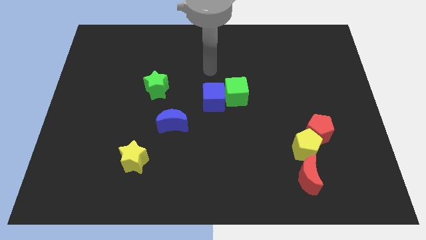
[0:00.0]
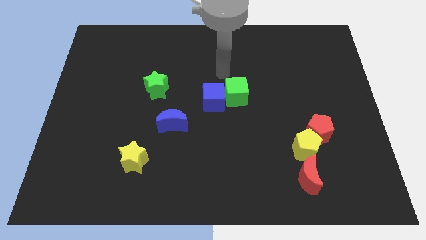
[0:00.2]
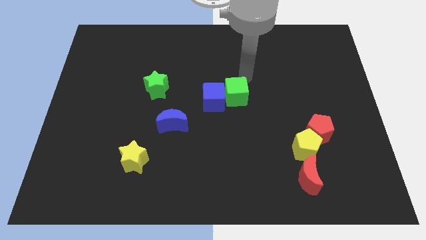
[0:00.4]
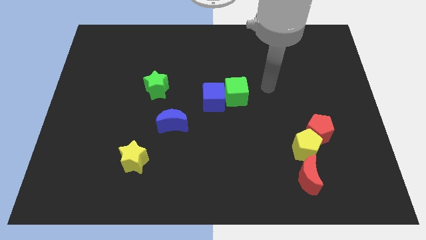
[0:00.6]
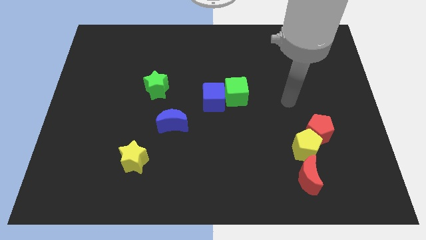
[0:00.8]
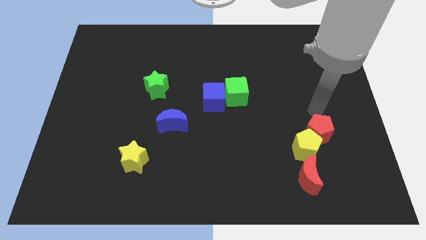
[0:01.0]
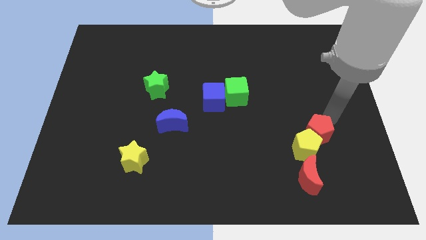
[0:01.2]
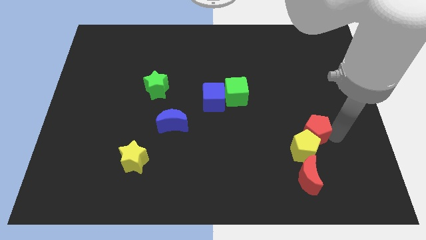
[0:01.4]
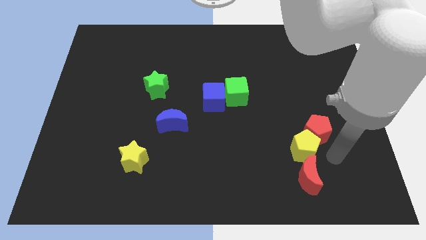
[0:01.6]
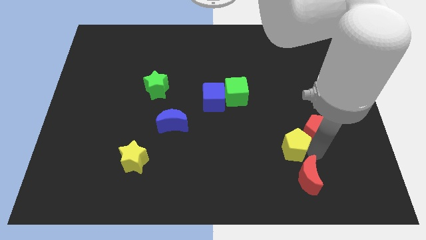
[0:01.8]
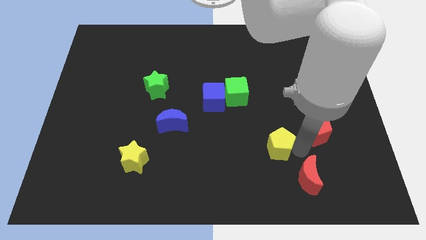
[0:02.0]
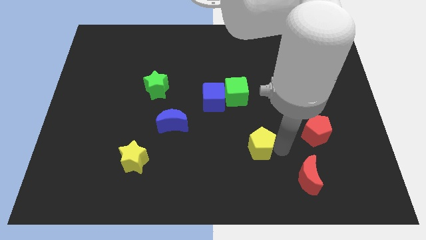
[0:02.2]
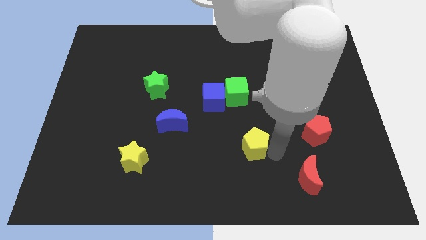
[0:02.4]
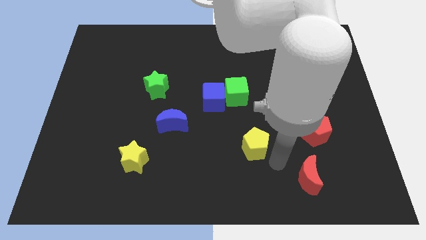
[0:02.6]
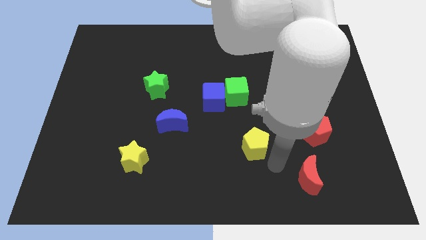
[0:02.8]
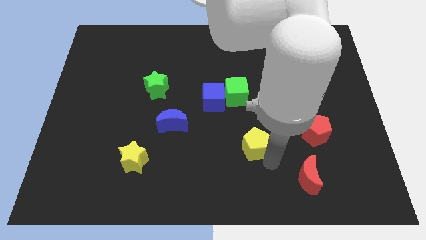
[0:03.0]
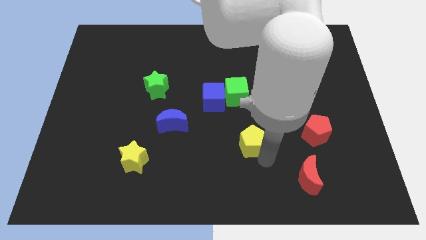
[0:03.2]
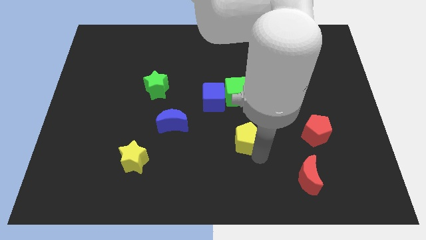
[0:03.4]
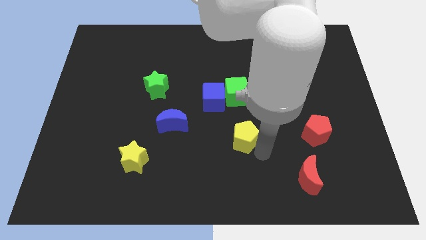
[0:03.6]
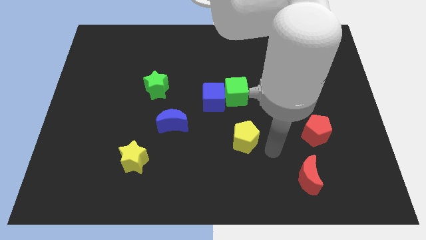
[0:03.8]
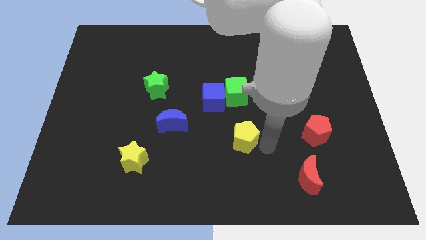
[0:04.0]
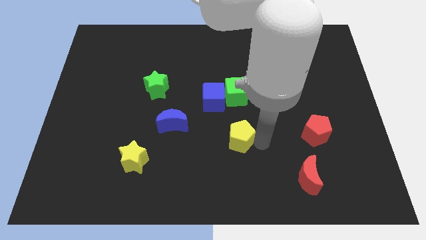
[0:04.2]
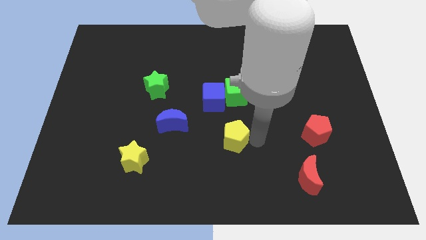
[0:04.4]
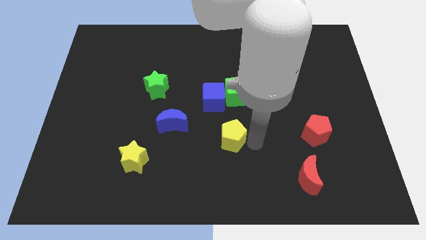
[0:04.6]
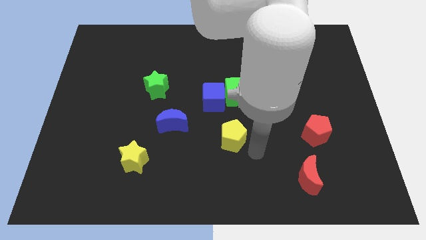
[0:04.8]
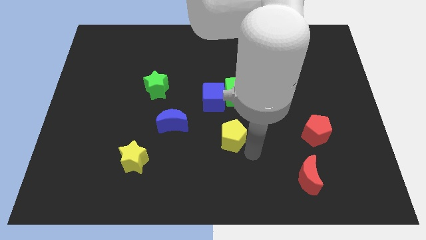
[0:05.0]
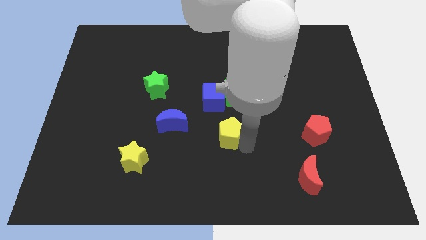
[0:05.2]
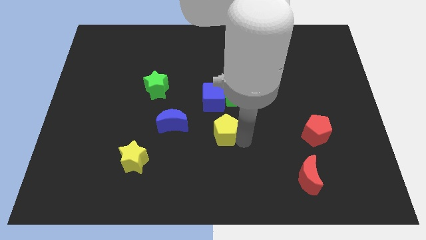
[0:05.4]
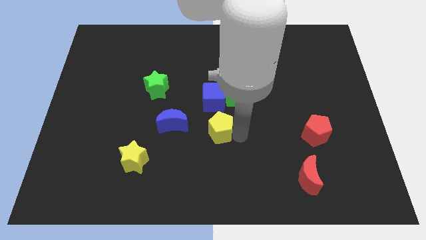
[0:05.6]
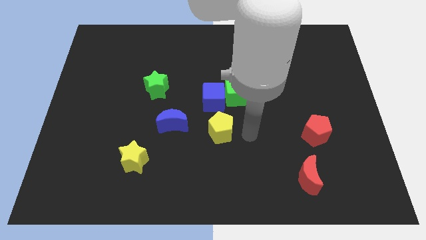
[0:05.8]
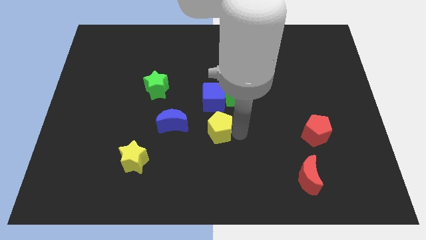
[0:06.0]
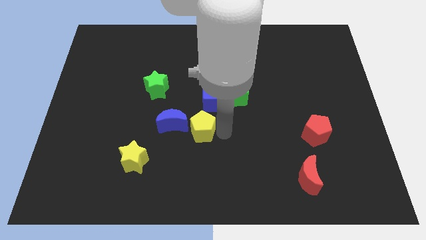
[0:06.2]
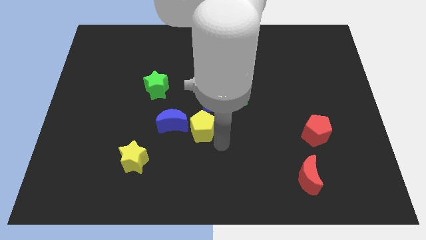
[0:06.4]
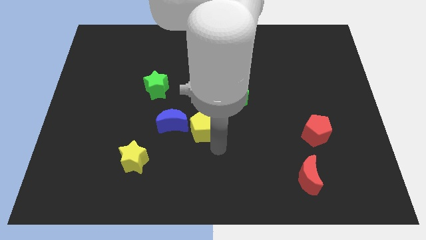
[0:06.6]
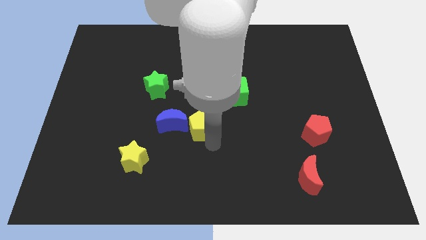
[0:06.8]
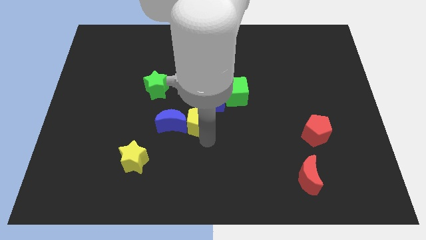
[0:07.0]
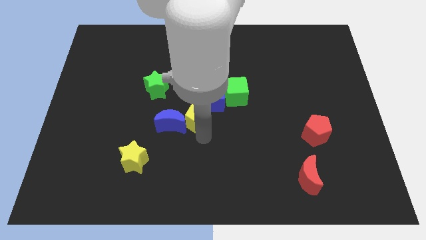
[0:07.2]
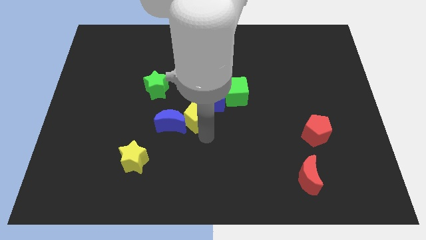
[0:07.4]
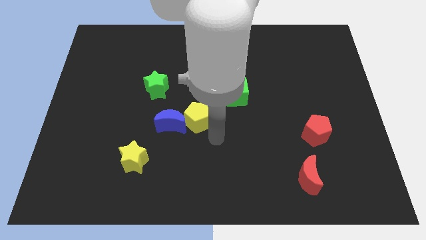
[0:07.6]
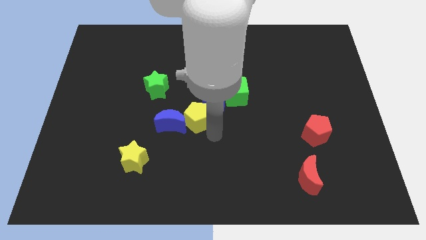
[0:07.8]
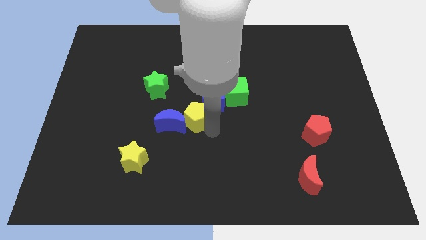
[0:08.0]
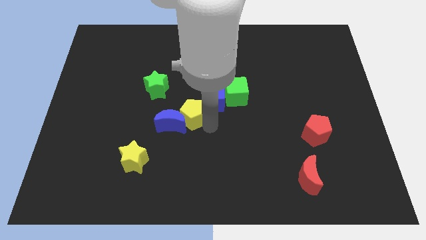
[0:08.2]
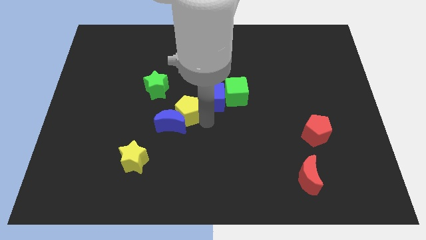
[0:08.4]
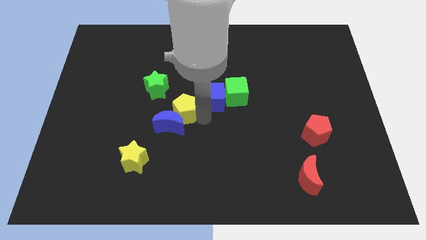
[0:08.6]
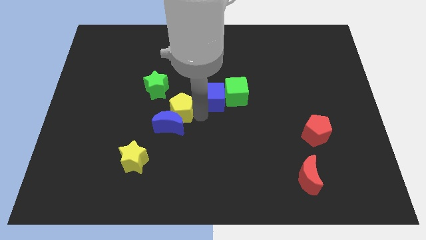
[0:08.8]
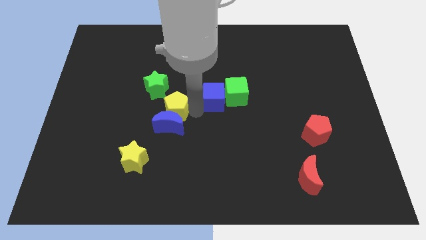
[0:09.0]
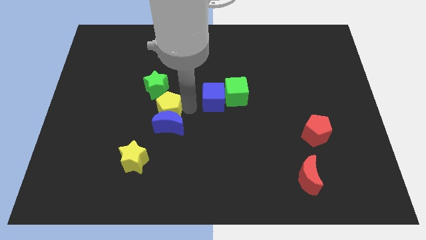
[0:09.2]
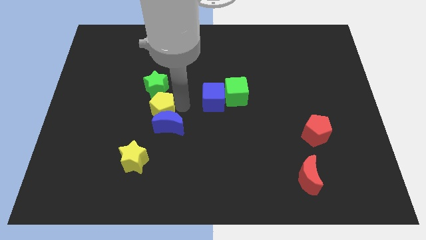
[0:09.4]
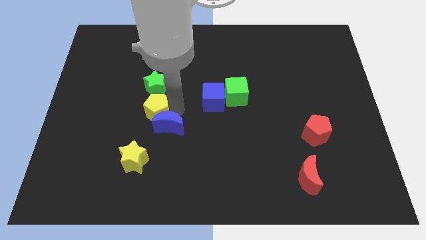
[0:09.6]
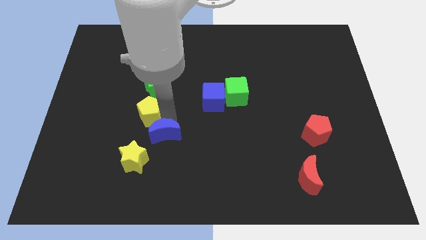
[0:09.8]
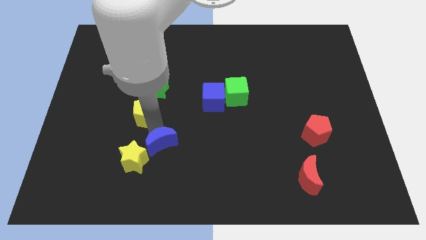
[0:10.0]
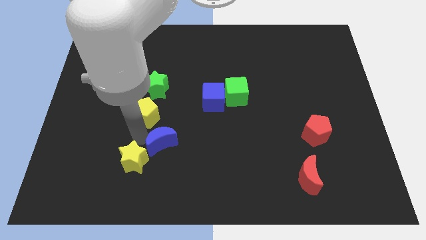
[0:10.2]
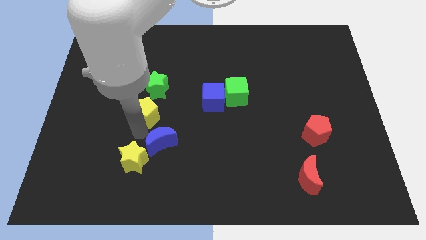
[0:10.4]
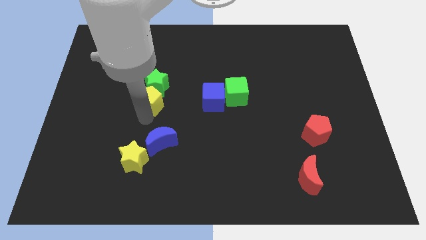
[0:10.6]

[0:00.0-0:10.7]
push the yellow pentagon next to the green star

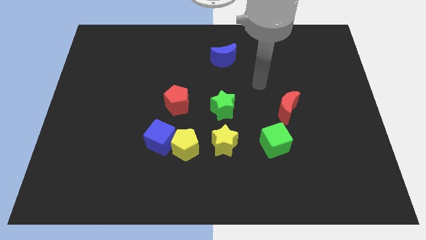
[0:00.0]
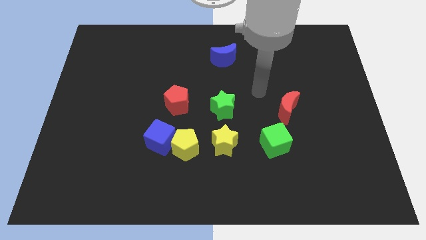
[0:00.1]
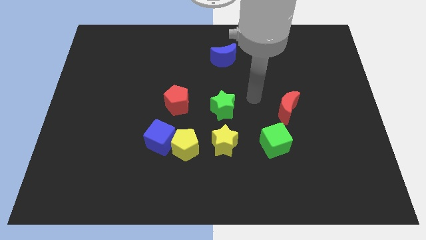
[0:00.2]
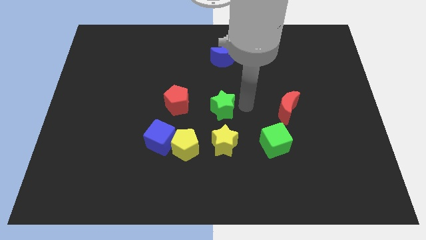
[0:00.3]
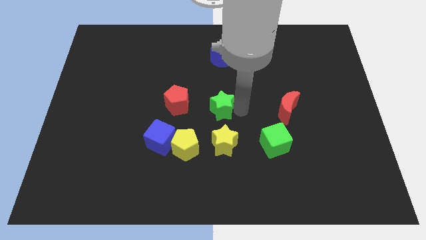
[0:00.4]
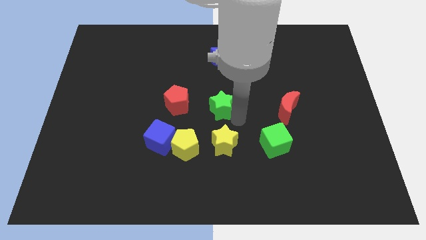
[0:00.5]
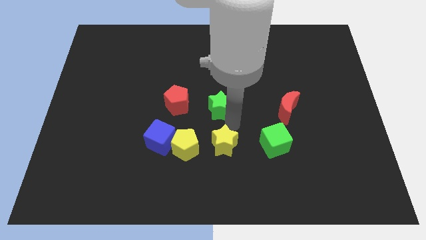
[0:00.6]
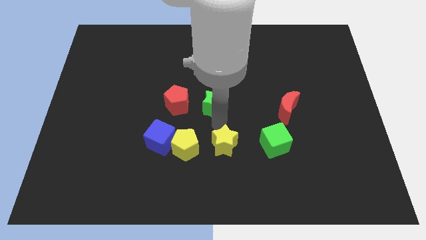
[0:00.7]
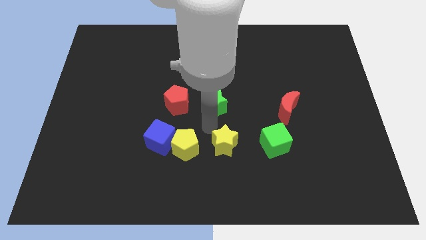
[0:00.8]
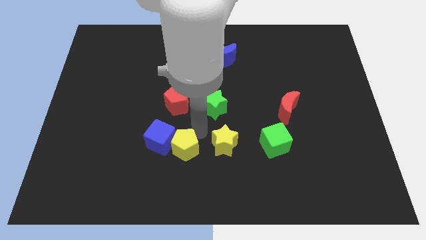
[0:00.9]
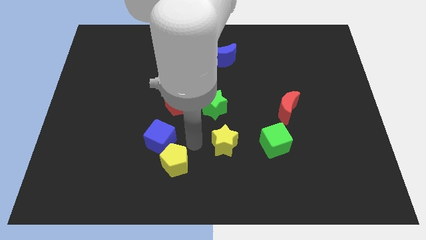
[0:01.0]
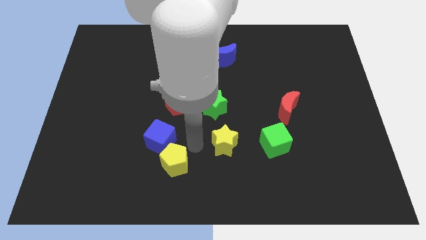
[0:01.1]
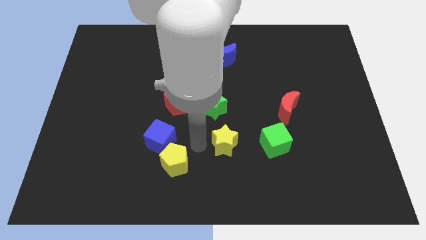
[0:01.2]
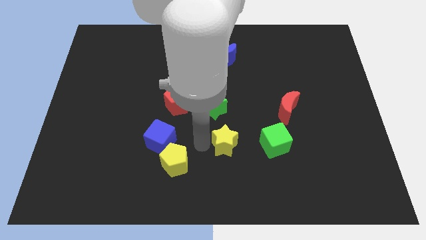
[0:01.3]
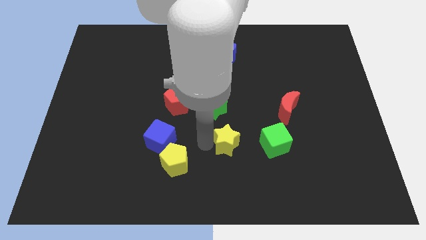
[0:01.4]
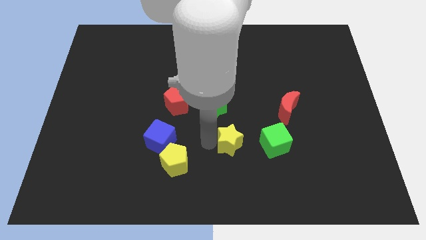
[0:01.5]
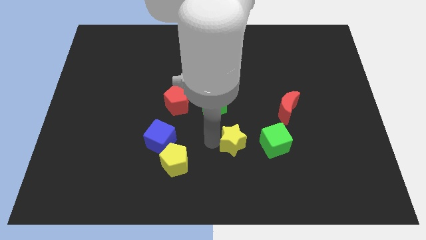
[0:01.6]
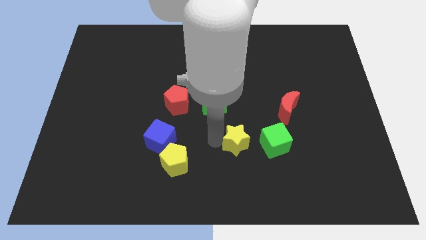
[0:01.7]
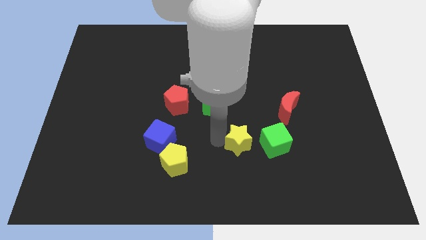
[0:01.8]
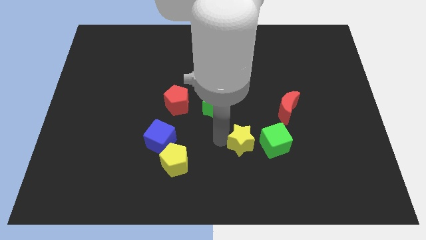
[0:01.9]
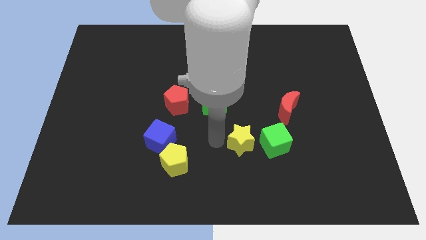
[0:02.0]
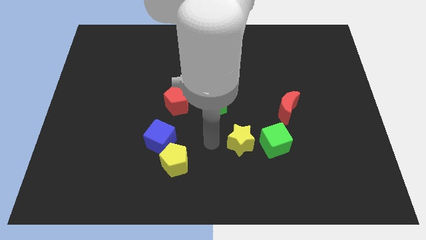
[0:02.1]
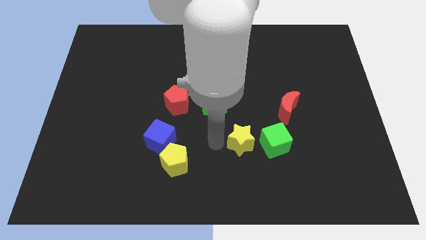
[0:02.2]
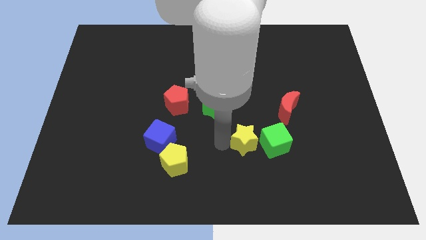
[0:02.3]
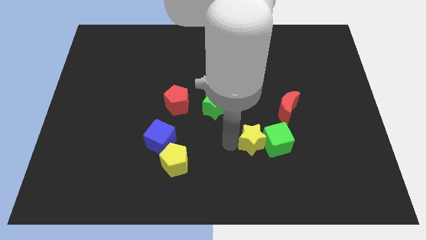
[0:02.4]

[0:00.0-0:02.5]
move the yellow star next to the green cube
